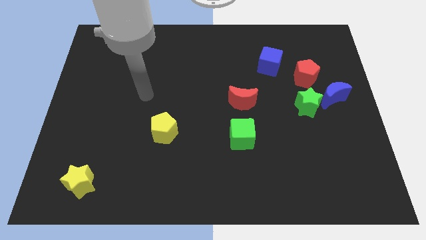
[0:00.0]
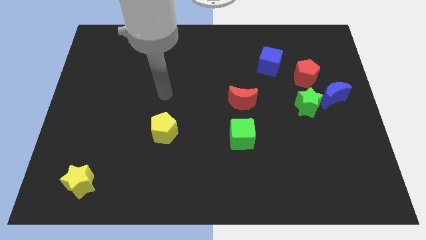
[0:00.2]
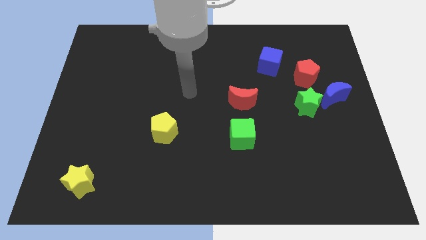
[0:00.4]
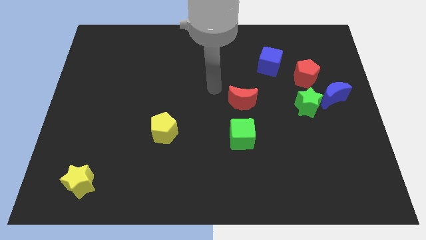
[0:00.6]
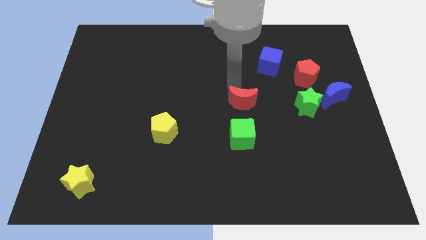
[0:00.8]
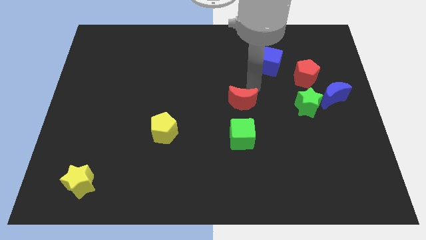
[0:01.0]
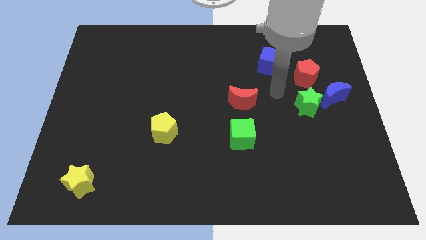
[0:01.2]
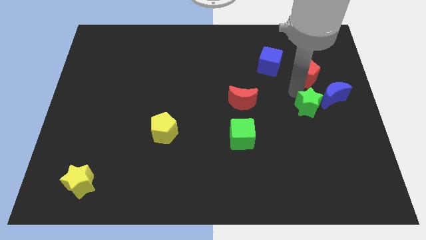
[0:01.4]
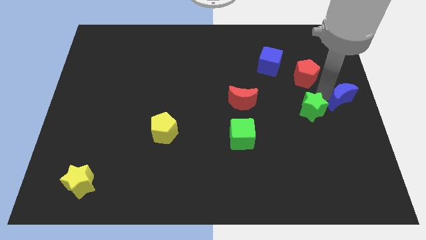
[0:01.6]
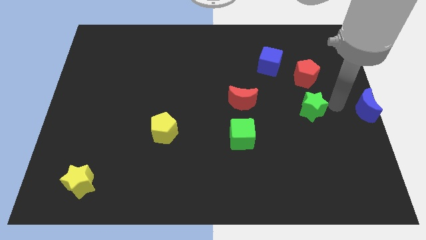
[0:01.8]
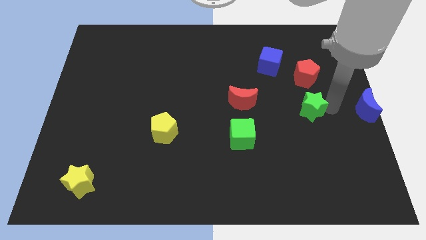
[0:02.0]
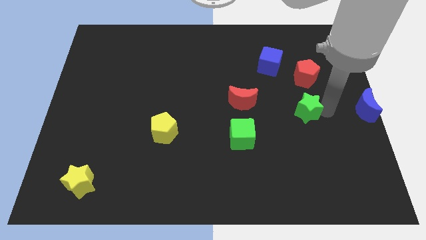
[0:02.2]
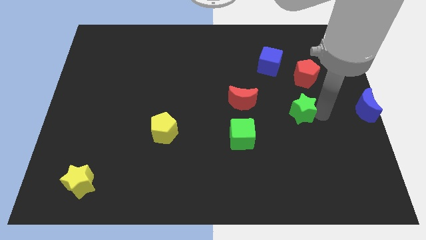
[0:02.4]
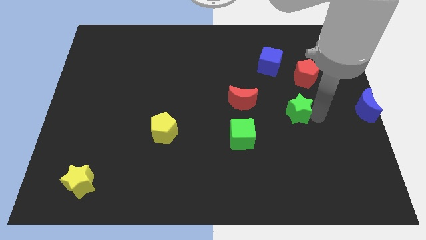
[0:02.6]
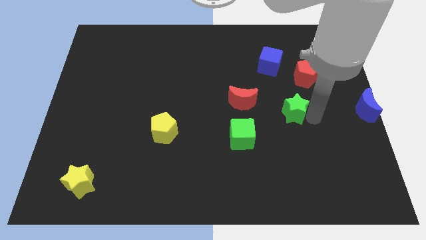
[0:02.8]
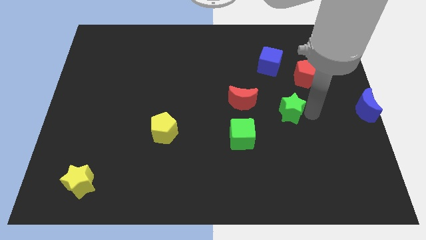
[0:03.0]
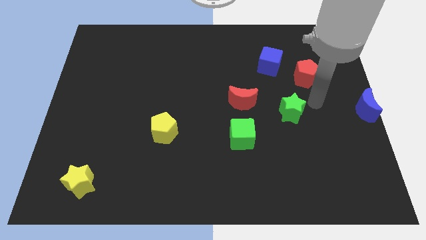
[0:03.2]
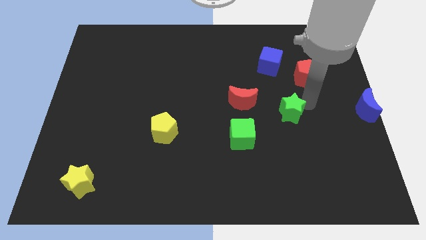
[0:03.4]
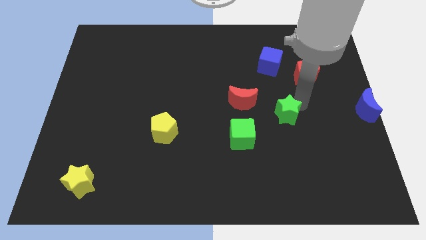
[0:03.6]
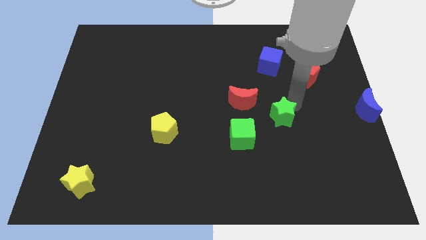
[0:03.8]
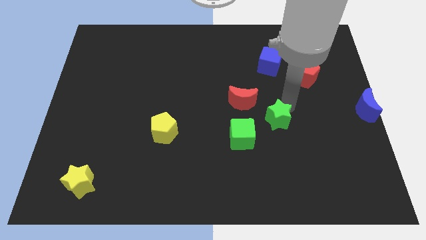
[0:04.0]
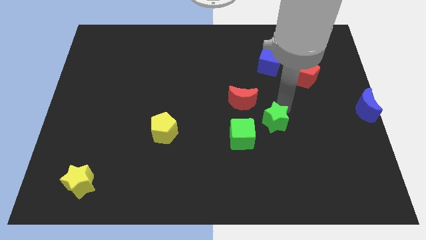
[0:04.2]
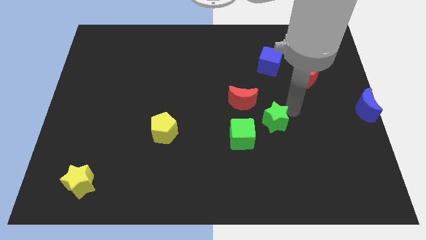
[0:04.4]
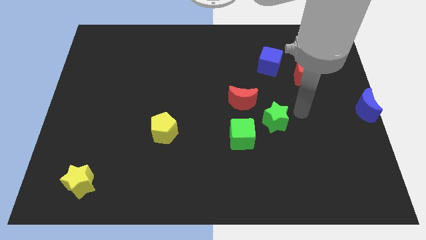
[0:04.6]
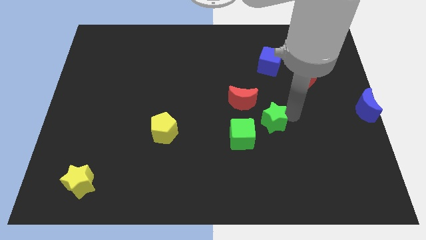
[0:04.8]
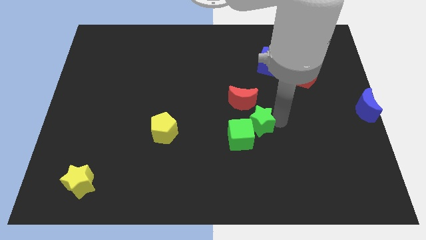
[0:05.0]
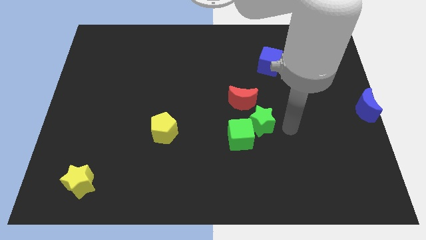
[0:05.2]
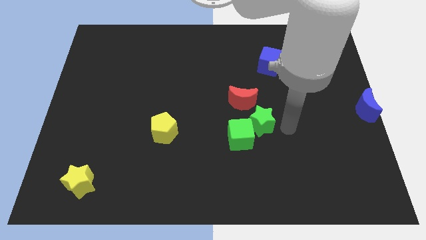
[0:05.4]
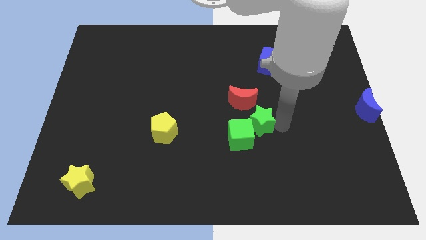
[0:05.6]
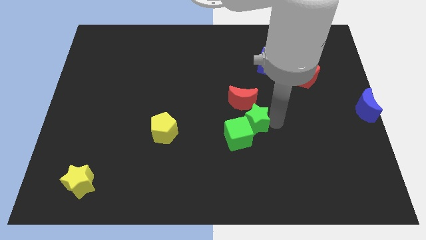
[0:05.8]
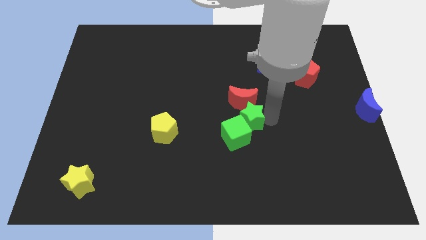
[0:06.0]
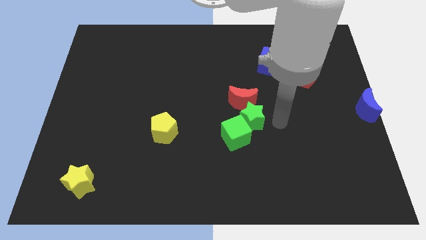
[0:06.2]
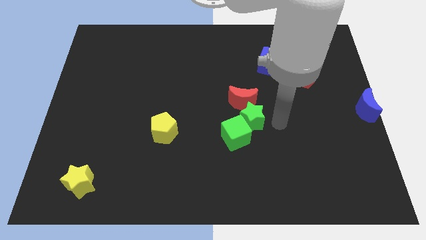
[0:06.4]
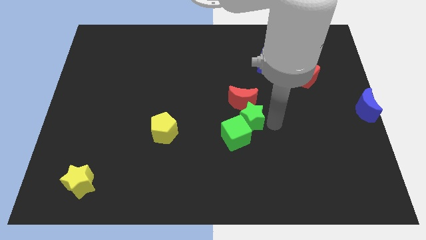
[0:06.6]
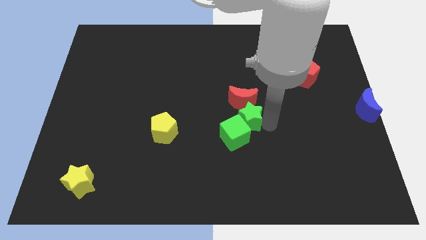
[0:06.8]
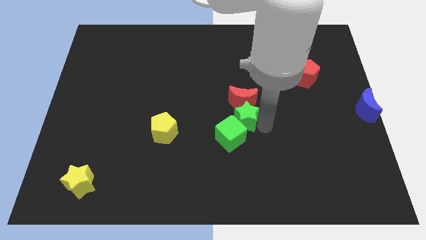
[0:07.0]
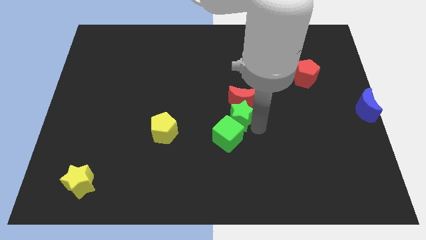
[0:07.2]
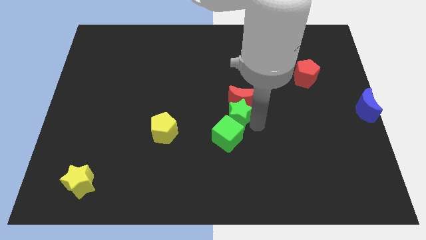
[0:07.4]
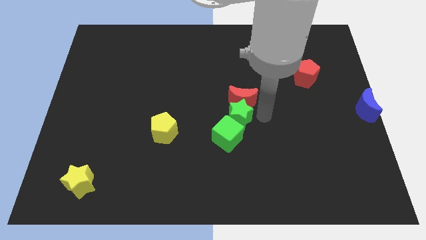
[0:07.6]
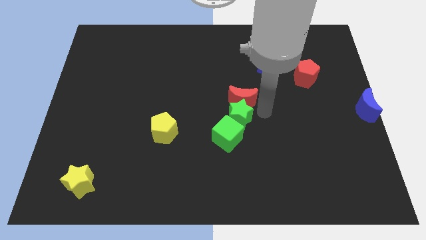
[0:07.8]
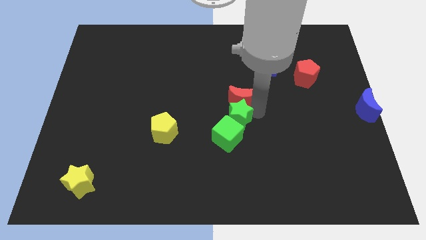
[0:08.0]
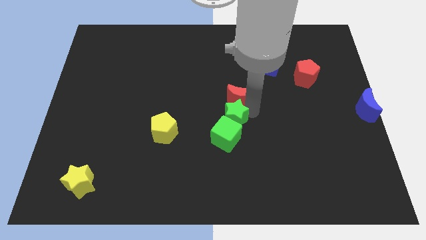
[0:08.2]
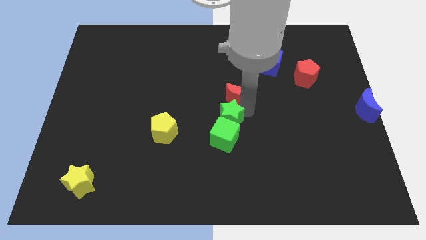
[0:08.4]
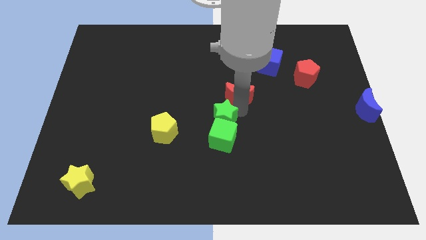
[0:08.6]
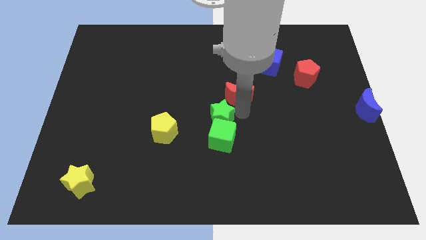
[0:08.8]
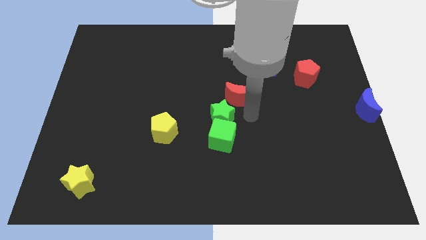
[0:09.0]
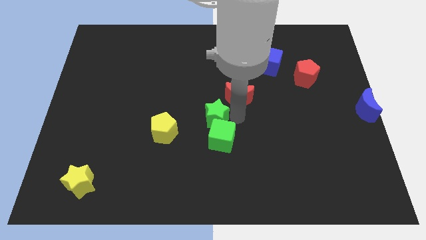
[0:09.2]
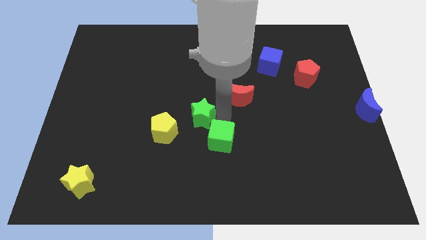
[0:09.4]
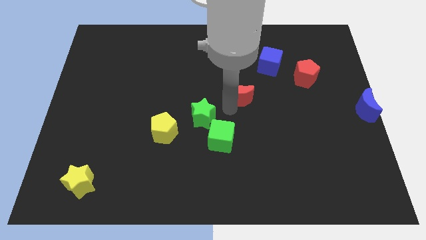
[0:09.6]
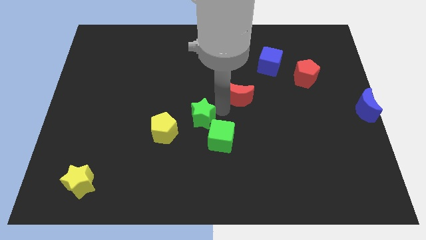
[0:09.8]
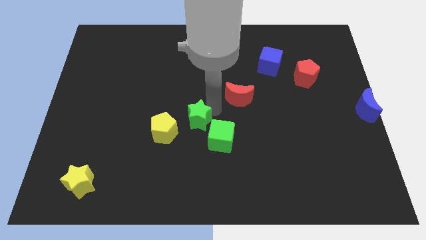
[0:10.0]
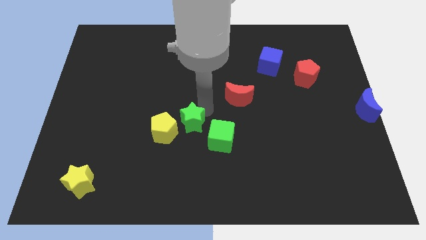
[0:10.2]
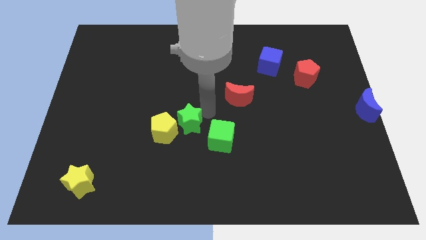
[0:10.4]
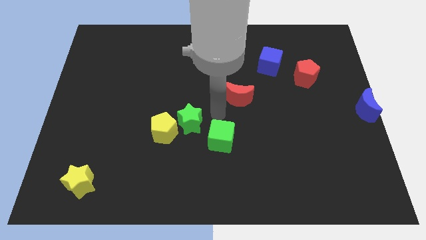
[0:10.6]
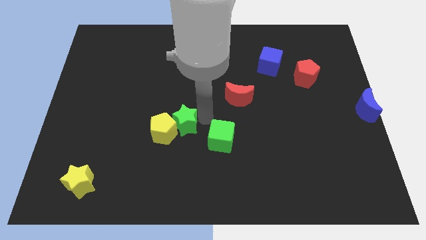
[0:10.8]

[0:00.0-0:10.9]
put the green star towards the yellow pentagon

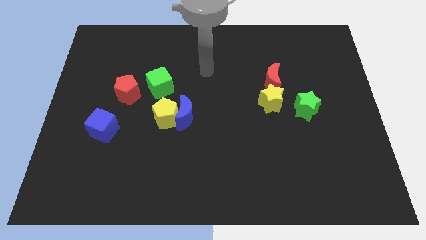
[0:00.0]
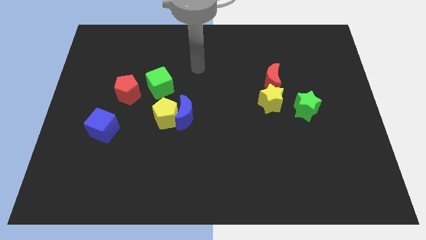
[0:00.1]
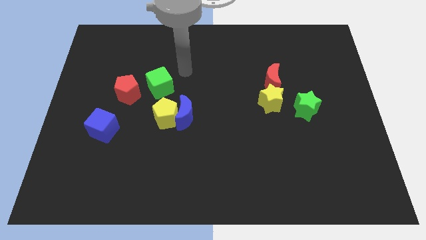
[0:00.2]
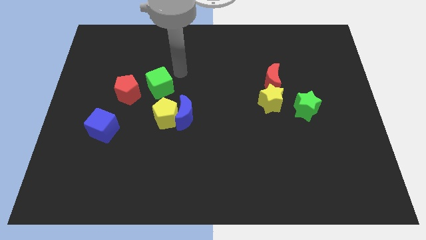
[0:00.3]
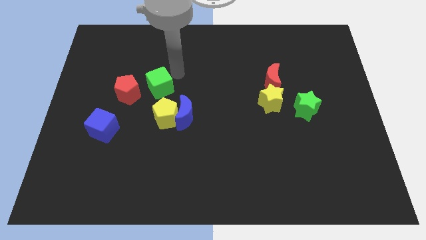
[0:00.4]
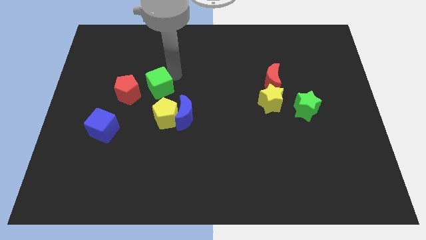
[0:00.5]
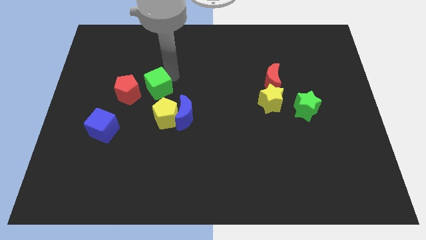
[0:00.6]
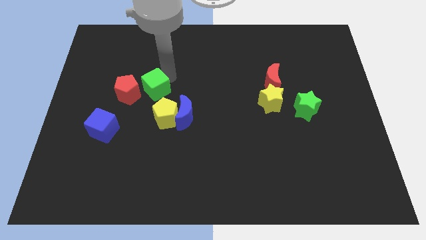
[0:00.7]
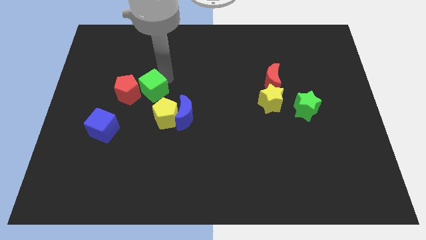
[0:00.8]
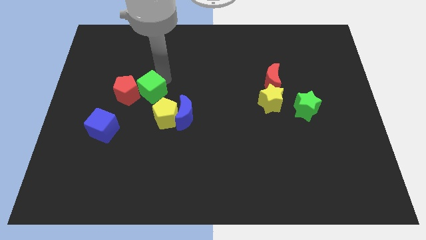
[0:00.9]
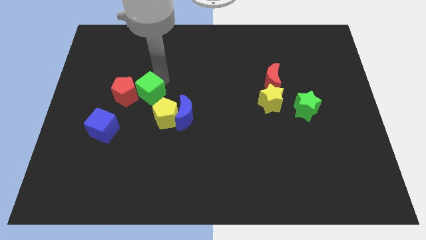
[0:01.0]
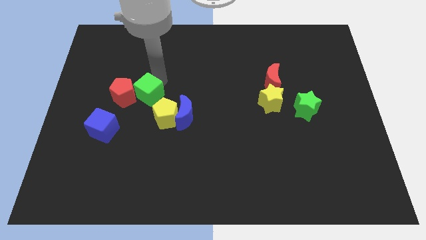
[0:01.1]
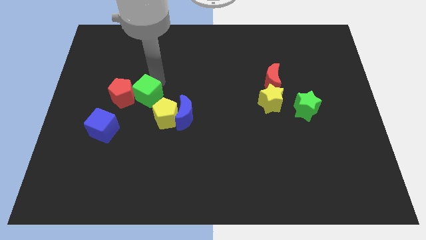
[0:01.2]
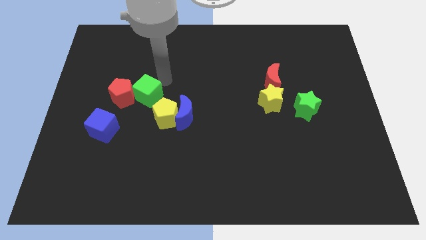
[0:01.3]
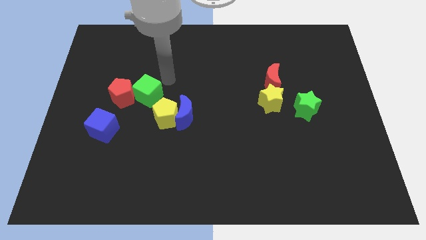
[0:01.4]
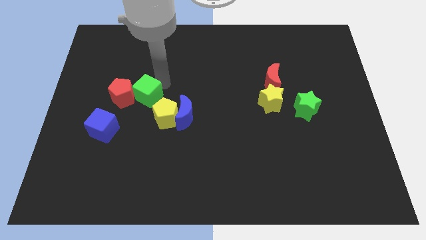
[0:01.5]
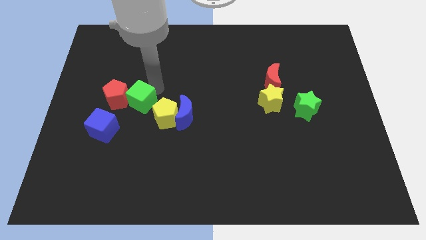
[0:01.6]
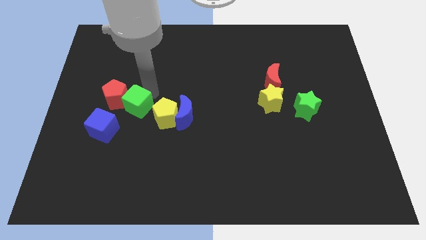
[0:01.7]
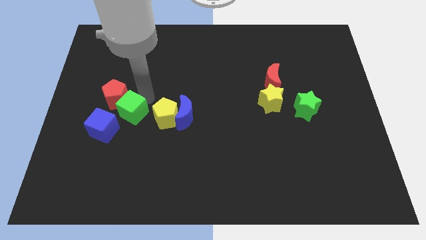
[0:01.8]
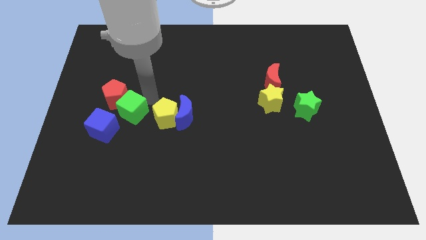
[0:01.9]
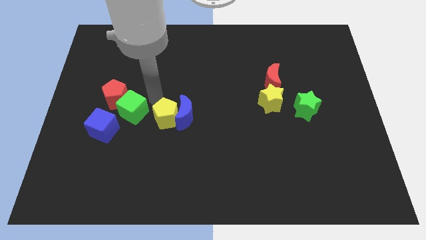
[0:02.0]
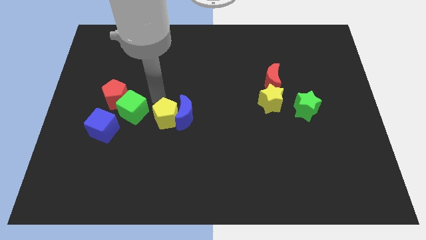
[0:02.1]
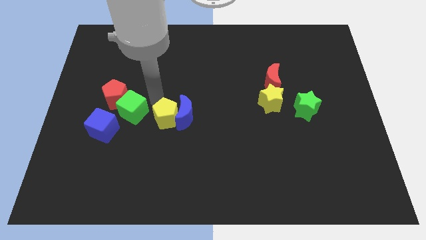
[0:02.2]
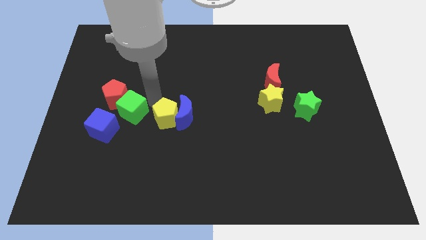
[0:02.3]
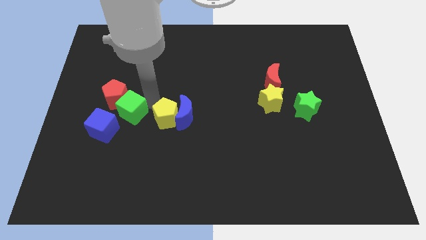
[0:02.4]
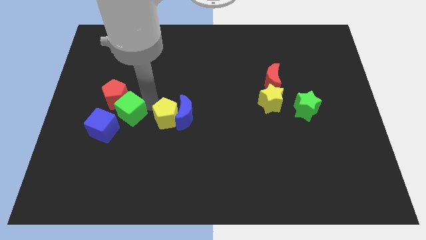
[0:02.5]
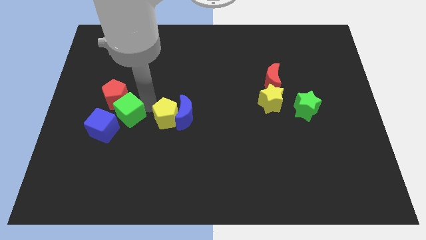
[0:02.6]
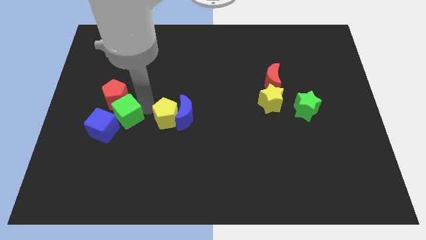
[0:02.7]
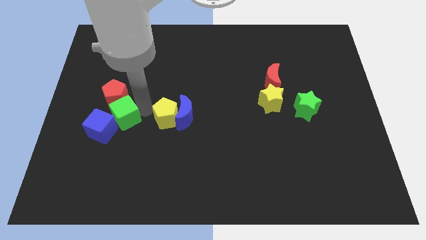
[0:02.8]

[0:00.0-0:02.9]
slide the green cube towards the blue cube
